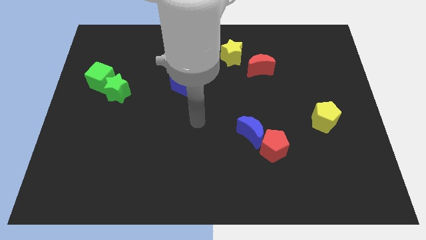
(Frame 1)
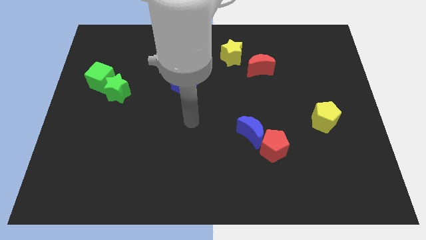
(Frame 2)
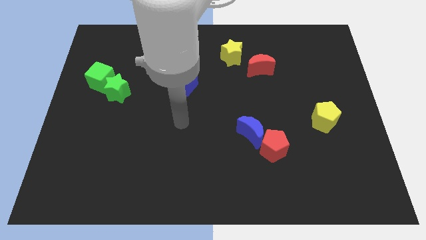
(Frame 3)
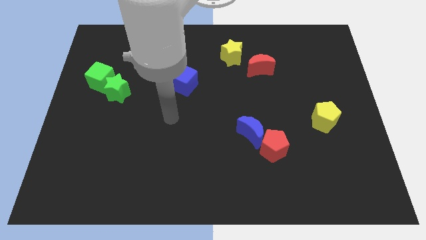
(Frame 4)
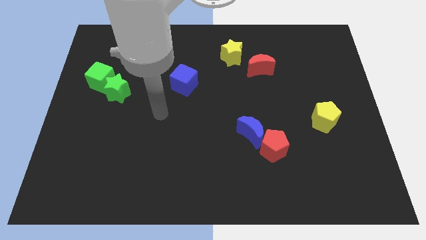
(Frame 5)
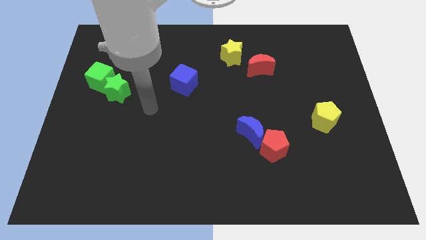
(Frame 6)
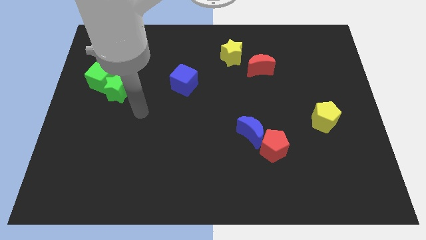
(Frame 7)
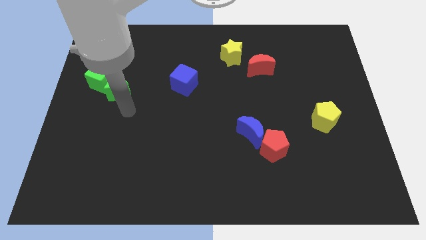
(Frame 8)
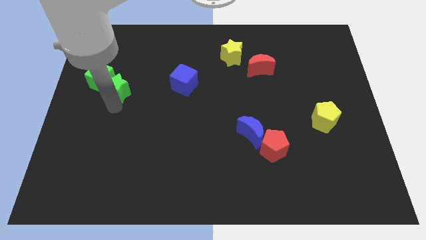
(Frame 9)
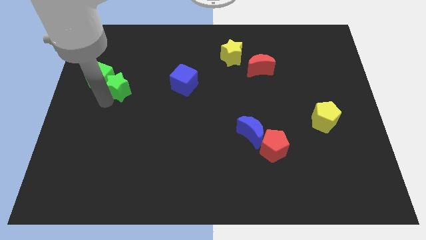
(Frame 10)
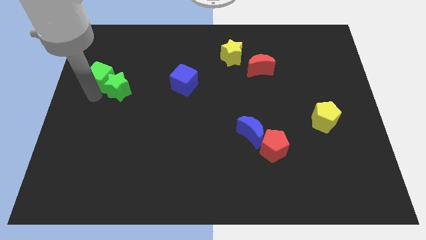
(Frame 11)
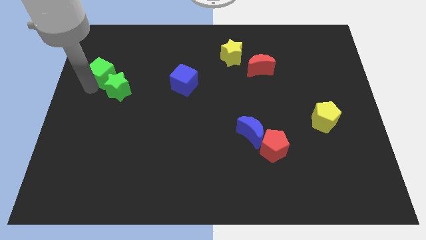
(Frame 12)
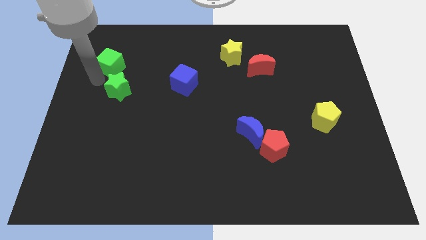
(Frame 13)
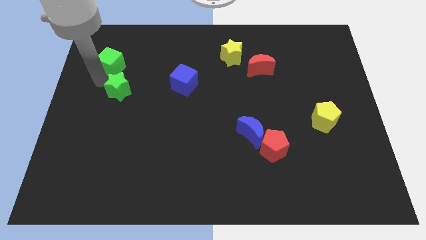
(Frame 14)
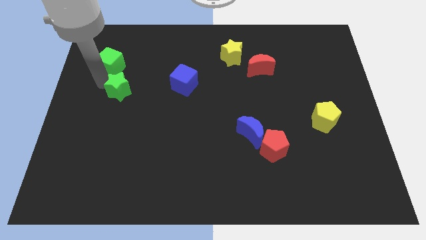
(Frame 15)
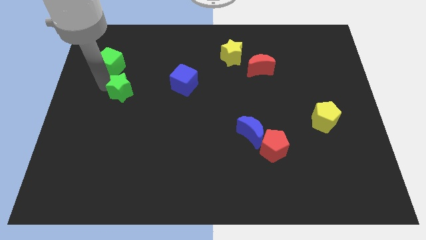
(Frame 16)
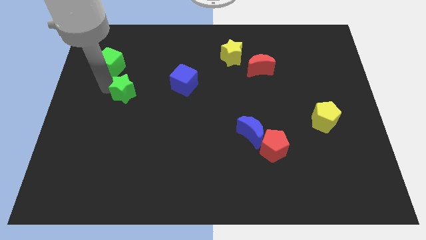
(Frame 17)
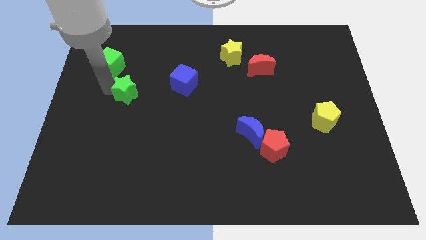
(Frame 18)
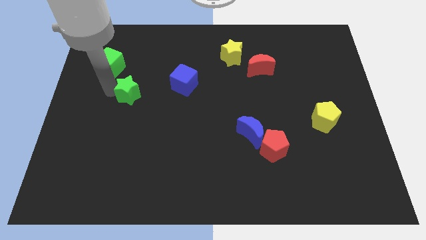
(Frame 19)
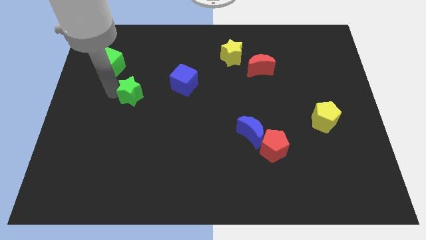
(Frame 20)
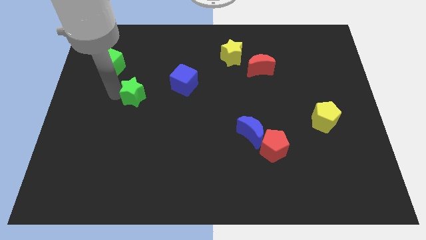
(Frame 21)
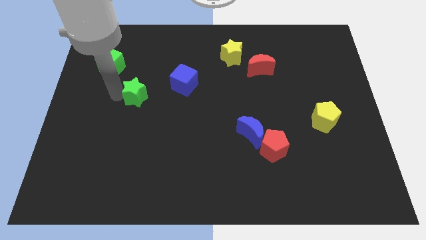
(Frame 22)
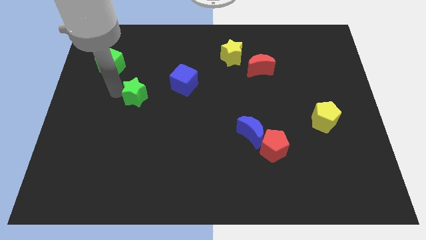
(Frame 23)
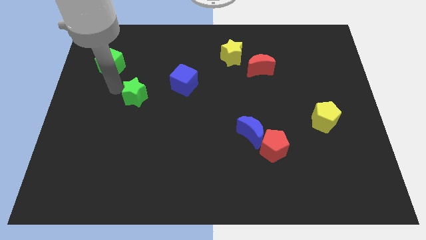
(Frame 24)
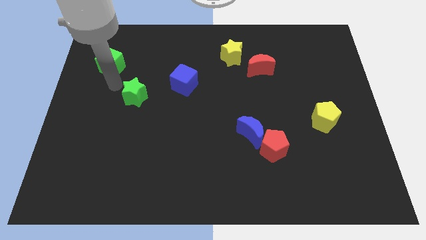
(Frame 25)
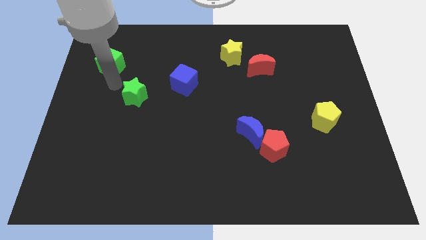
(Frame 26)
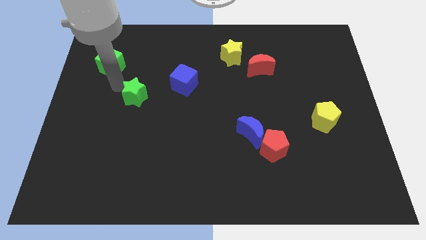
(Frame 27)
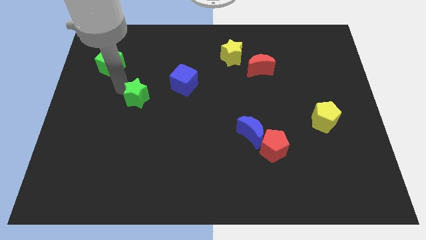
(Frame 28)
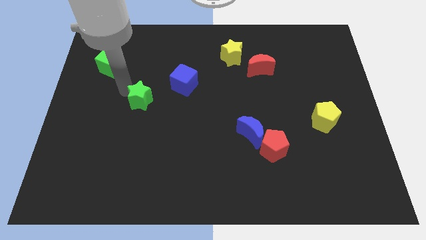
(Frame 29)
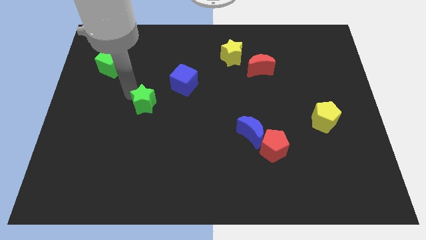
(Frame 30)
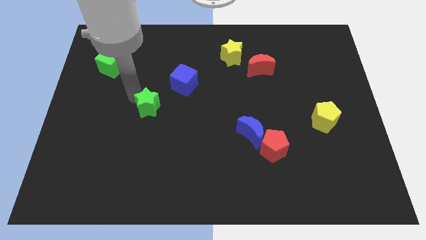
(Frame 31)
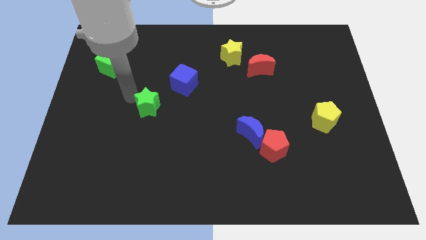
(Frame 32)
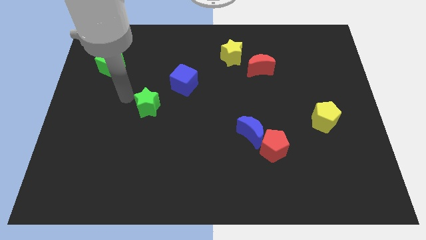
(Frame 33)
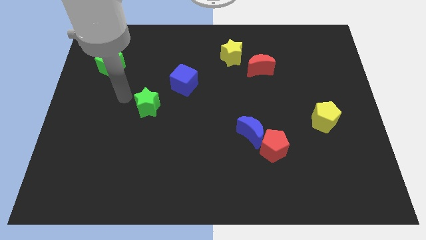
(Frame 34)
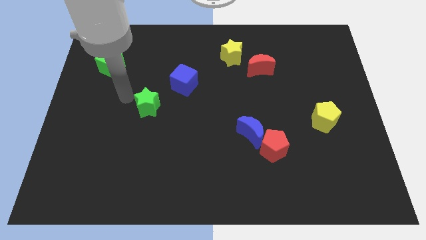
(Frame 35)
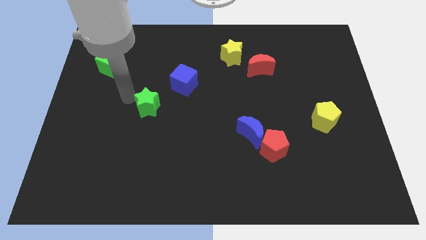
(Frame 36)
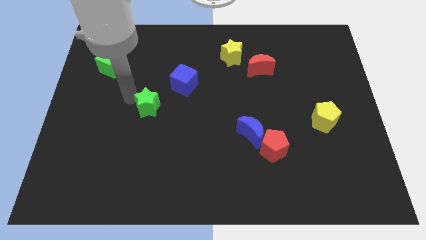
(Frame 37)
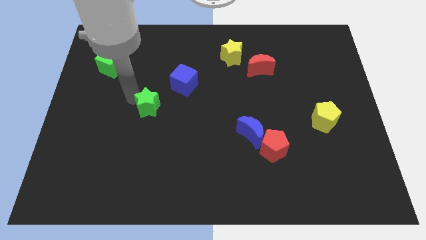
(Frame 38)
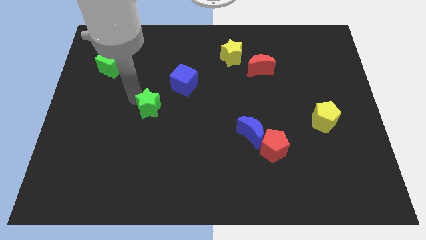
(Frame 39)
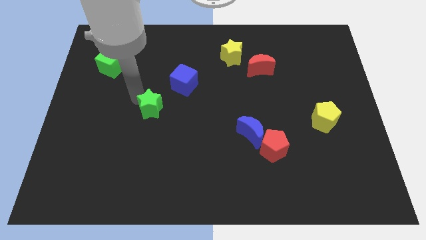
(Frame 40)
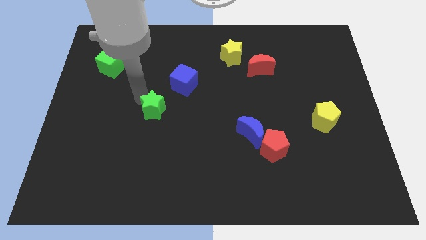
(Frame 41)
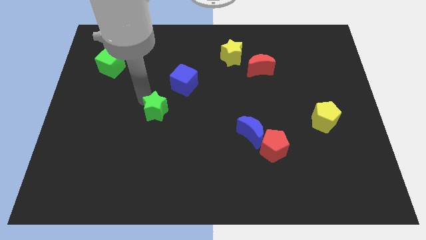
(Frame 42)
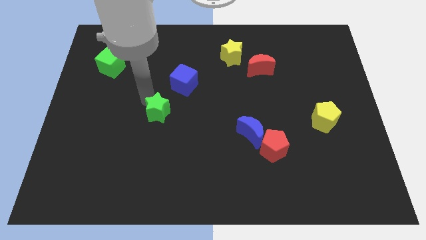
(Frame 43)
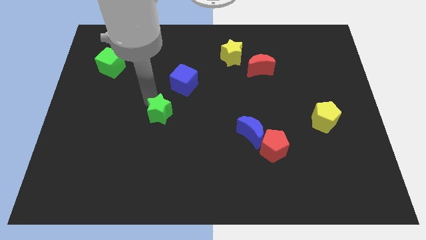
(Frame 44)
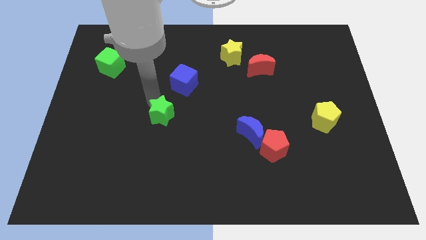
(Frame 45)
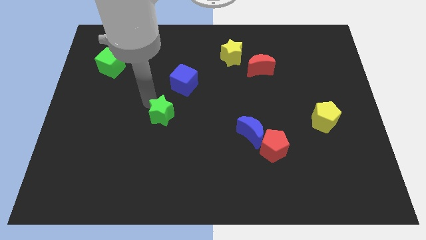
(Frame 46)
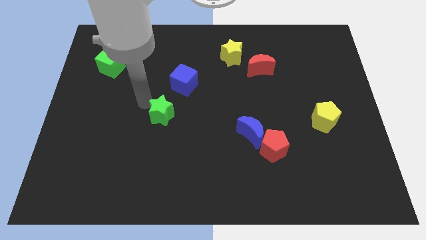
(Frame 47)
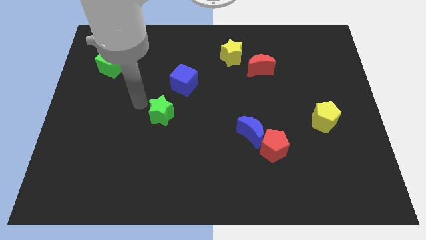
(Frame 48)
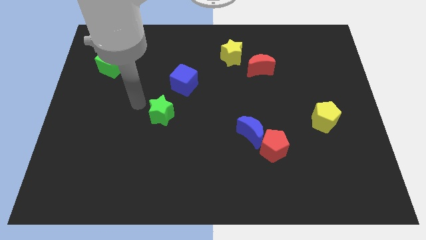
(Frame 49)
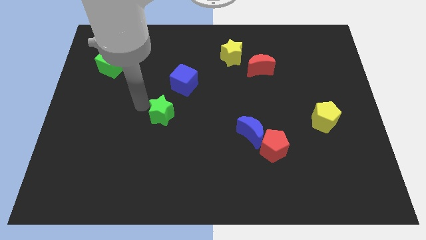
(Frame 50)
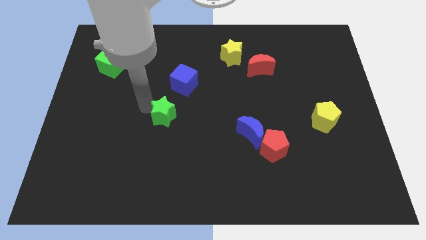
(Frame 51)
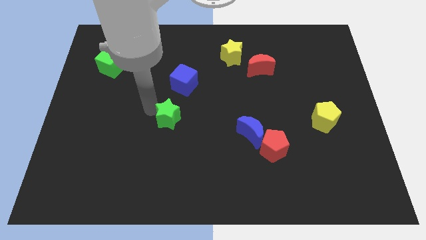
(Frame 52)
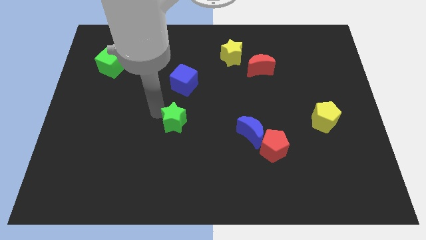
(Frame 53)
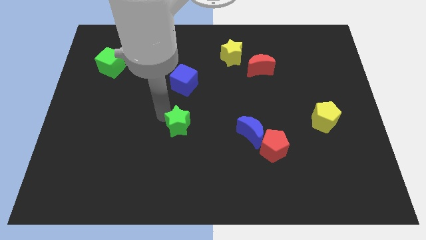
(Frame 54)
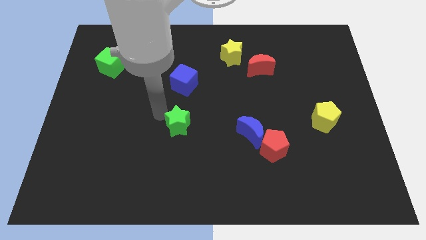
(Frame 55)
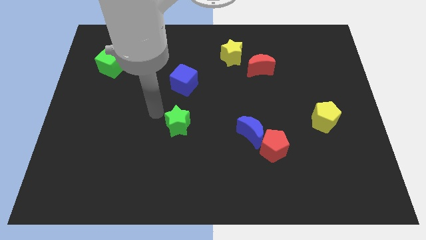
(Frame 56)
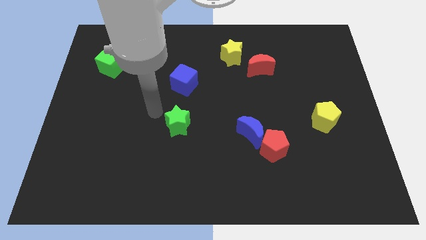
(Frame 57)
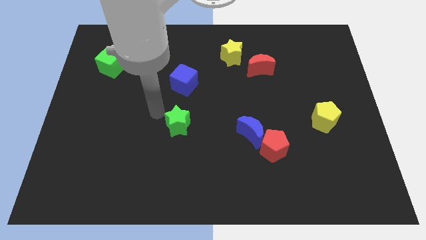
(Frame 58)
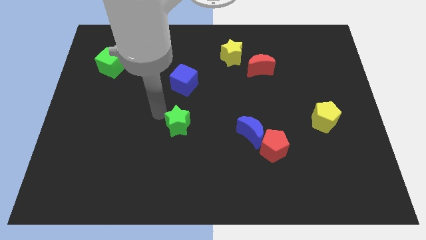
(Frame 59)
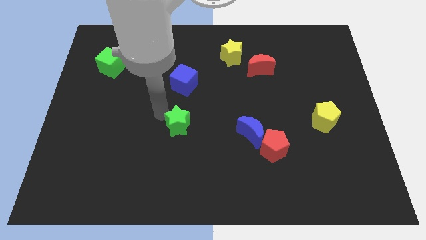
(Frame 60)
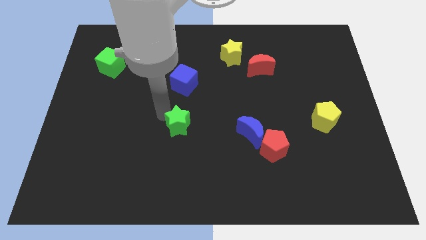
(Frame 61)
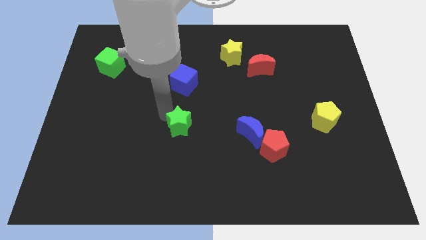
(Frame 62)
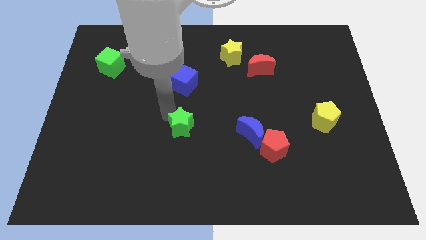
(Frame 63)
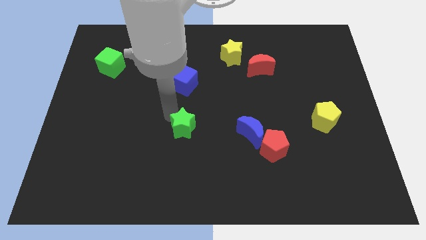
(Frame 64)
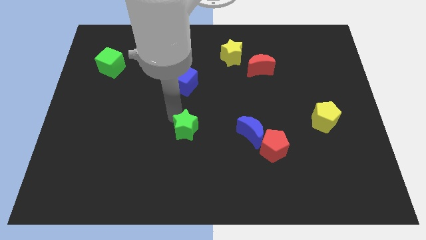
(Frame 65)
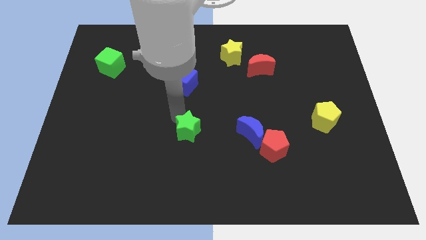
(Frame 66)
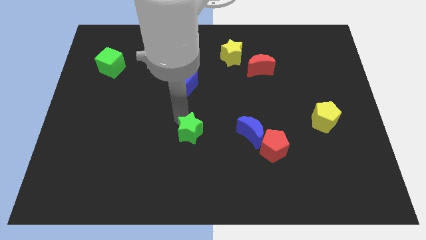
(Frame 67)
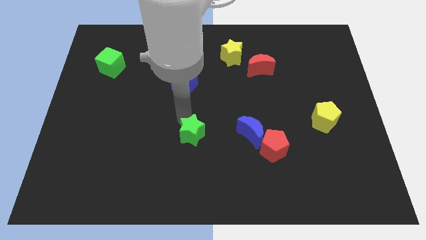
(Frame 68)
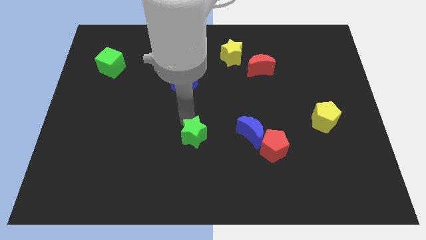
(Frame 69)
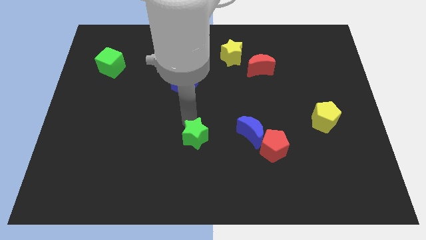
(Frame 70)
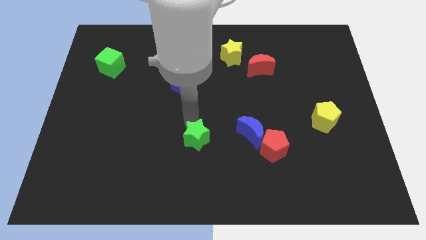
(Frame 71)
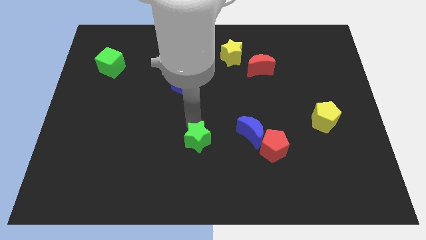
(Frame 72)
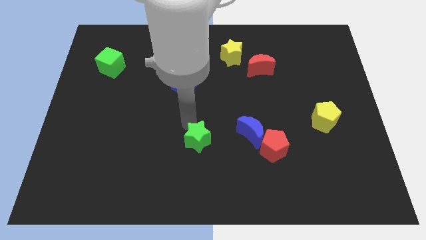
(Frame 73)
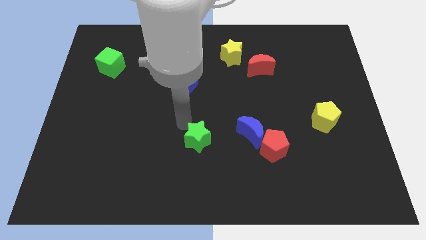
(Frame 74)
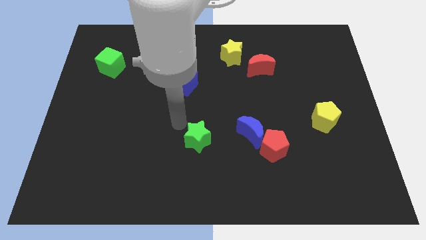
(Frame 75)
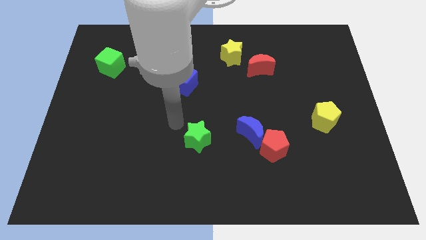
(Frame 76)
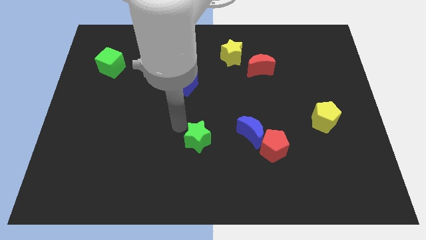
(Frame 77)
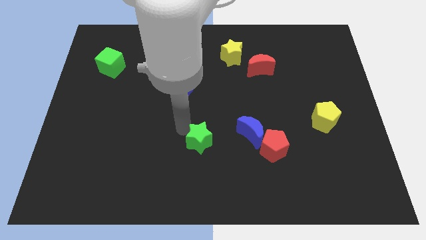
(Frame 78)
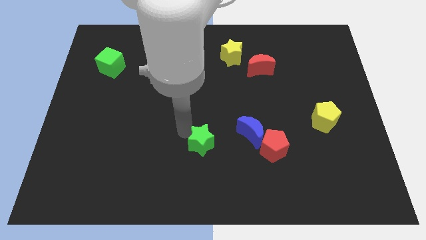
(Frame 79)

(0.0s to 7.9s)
slide the green star just left of the red pentagon
